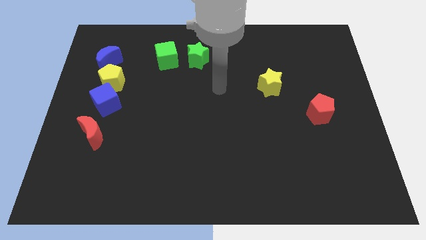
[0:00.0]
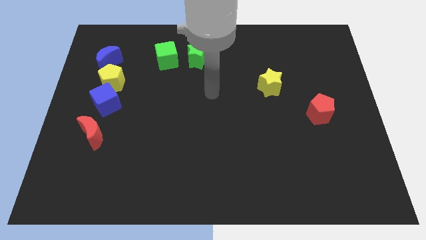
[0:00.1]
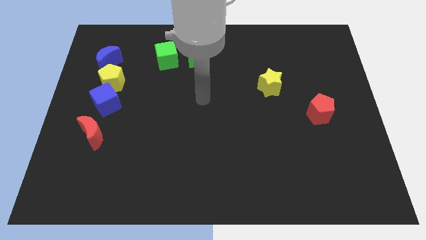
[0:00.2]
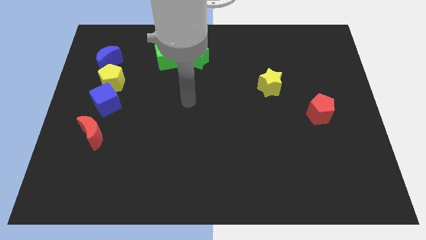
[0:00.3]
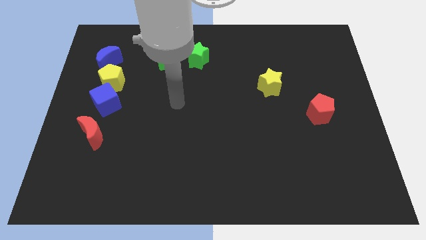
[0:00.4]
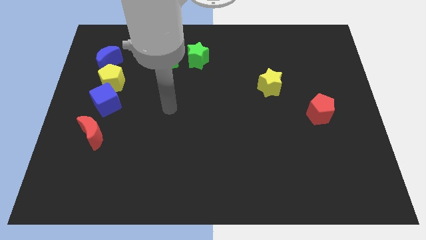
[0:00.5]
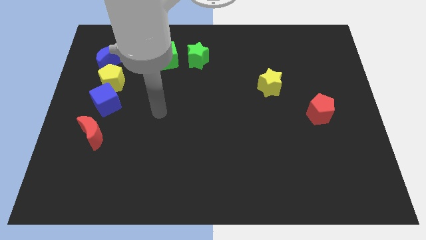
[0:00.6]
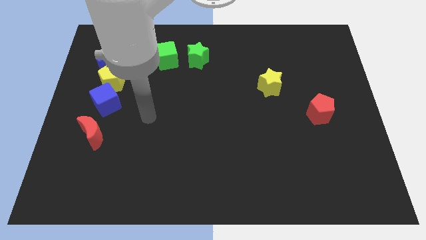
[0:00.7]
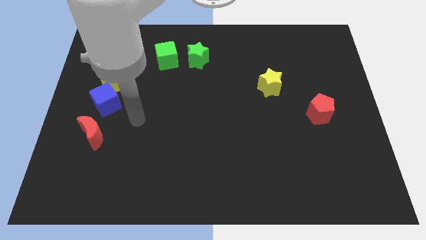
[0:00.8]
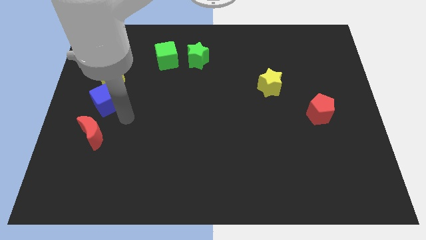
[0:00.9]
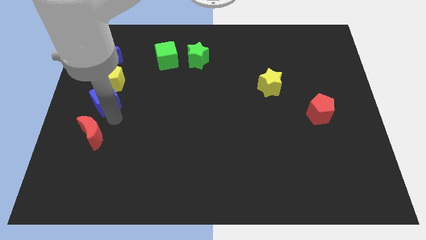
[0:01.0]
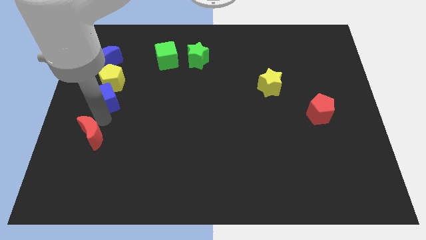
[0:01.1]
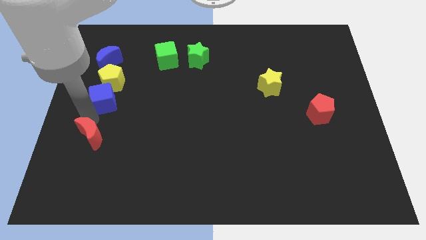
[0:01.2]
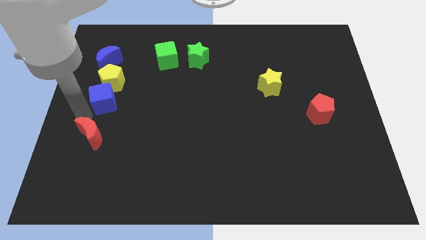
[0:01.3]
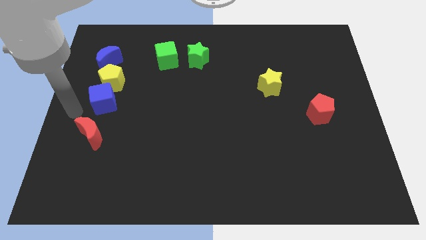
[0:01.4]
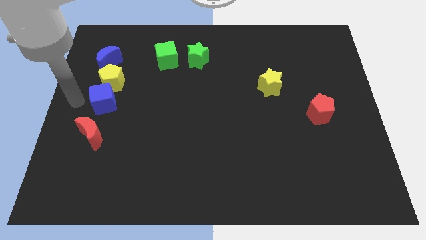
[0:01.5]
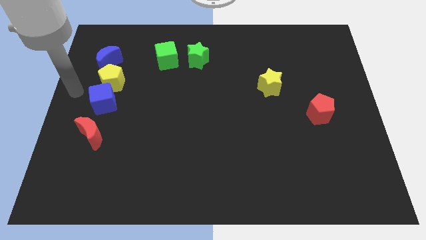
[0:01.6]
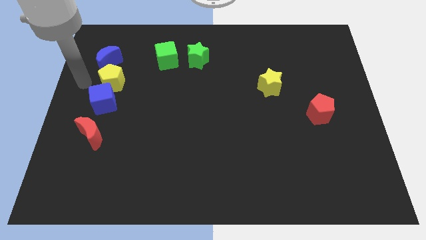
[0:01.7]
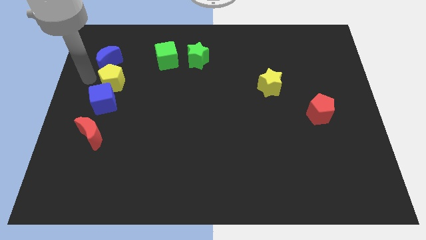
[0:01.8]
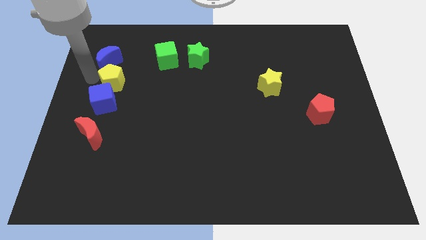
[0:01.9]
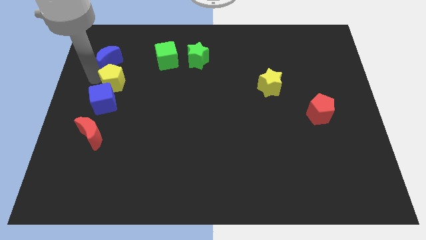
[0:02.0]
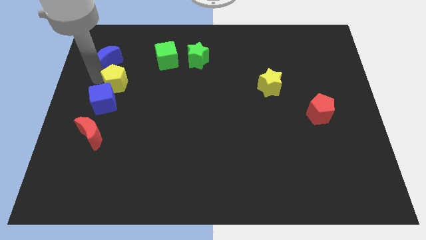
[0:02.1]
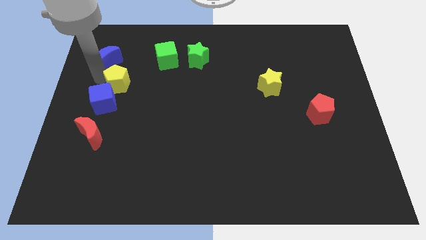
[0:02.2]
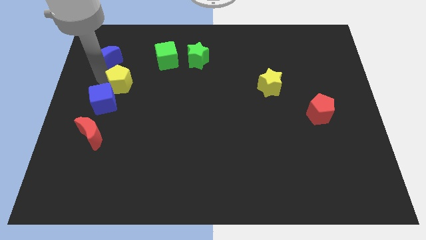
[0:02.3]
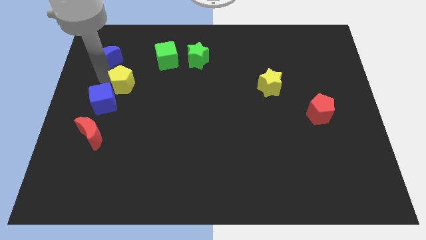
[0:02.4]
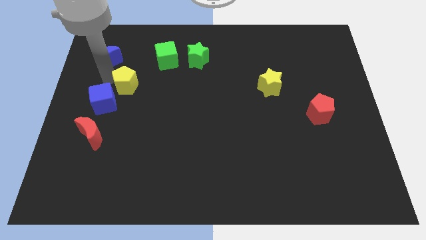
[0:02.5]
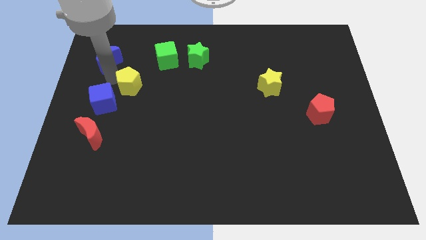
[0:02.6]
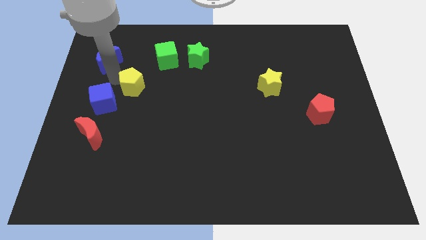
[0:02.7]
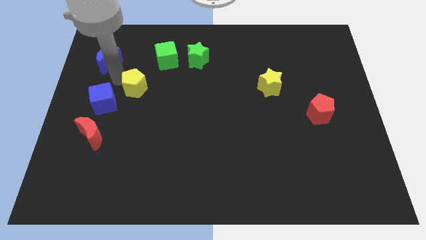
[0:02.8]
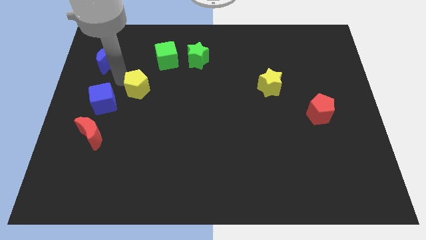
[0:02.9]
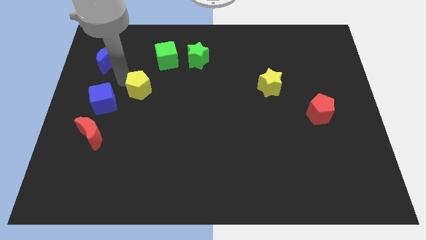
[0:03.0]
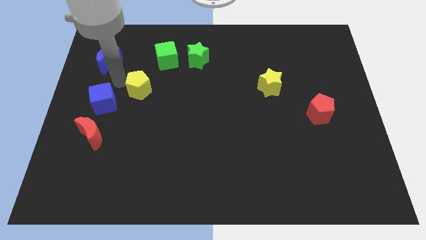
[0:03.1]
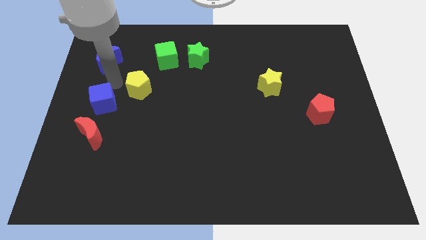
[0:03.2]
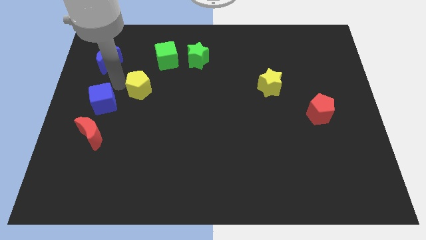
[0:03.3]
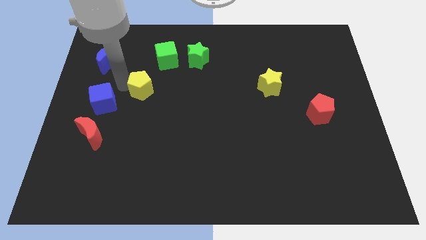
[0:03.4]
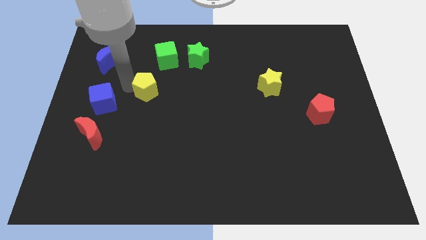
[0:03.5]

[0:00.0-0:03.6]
separate the yellow pentagon from the blue cube and blue moon

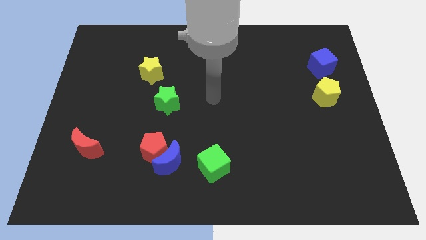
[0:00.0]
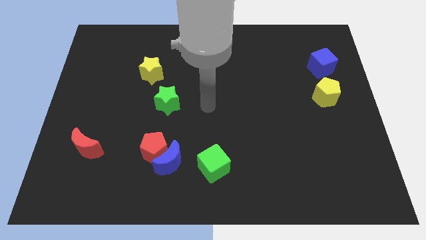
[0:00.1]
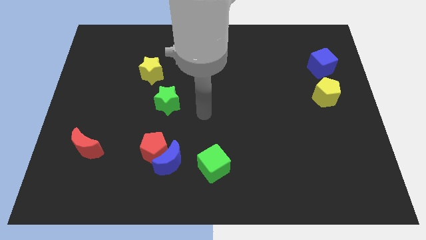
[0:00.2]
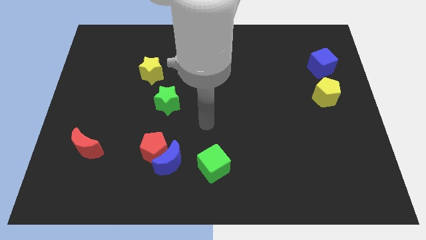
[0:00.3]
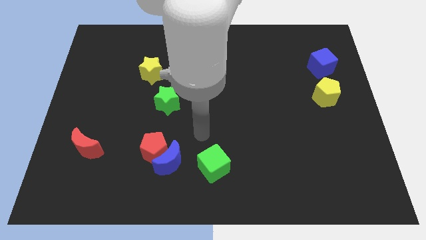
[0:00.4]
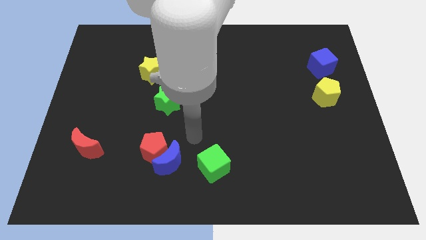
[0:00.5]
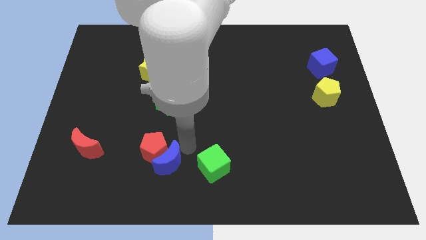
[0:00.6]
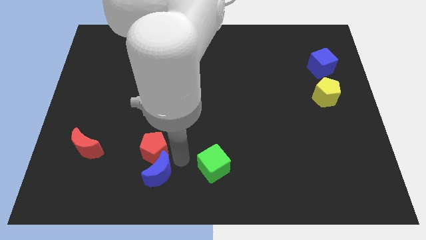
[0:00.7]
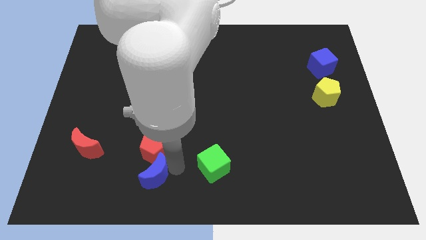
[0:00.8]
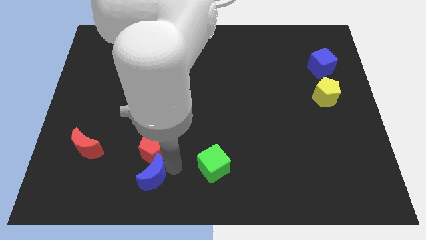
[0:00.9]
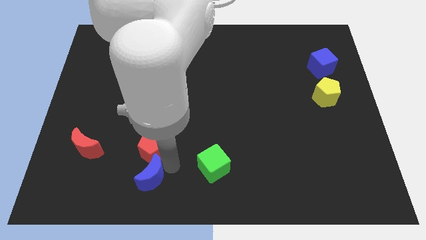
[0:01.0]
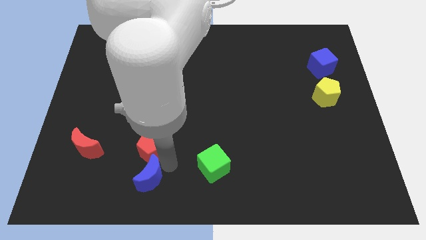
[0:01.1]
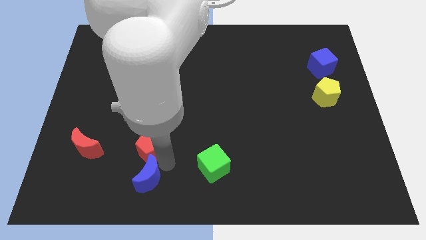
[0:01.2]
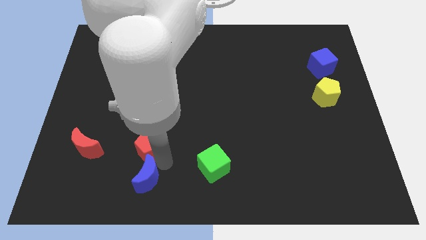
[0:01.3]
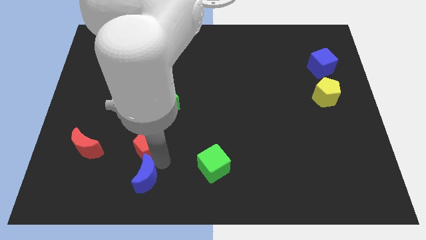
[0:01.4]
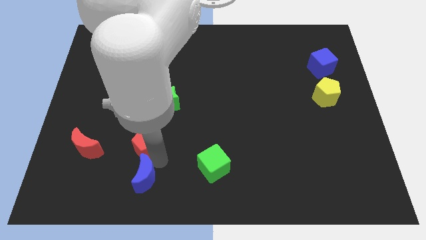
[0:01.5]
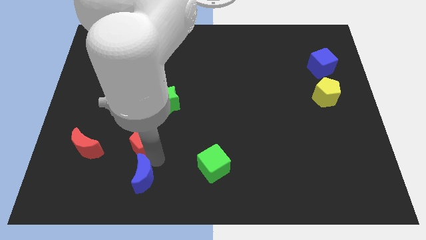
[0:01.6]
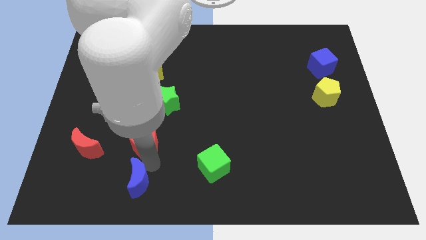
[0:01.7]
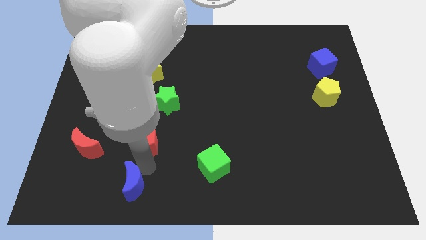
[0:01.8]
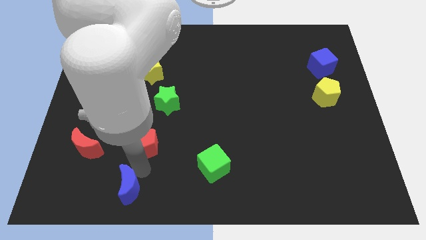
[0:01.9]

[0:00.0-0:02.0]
pull the red pentagon apart from the blue moon

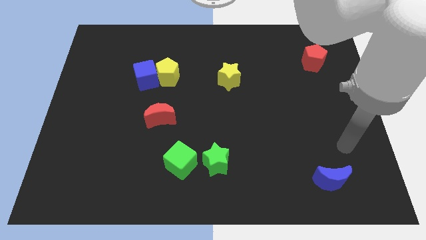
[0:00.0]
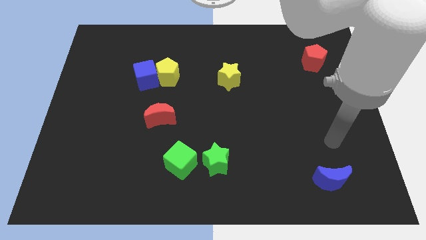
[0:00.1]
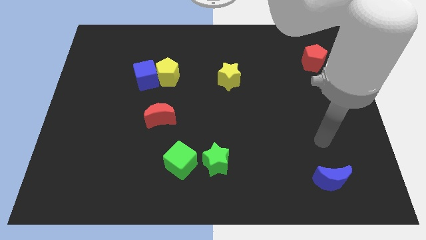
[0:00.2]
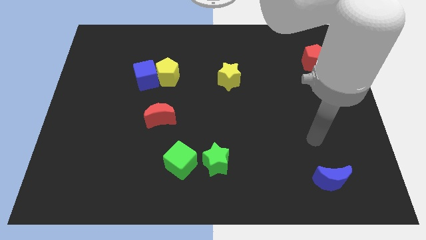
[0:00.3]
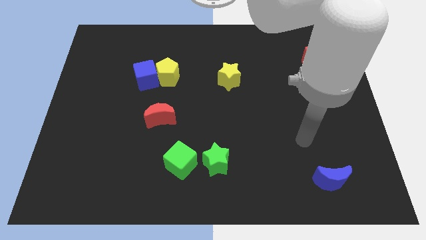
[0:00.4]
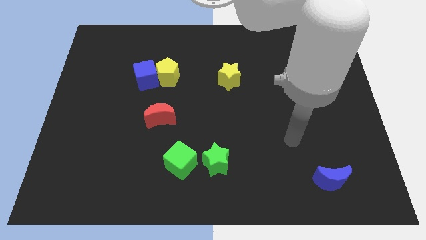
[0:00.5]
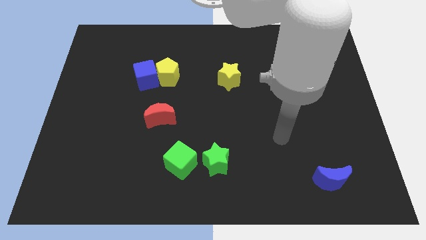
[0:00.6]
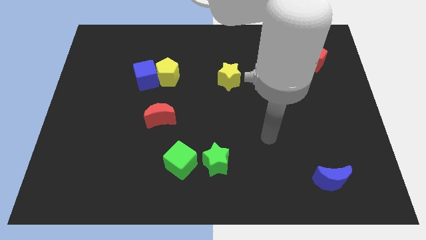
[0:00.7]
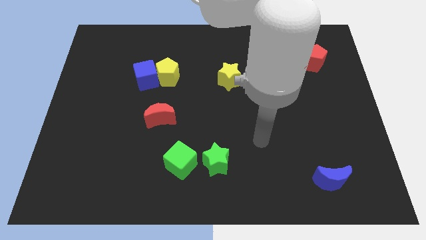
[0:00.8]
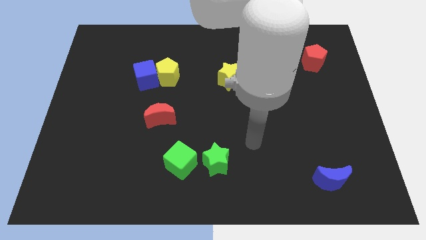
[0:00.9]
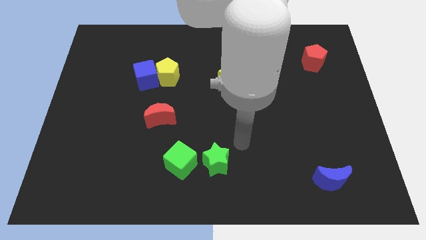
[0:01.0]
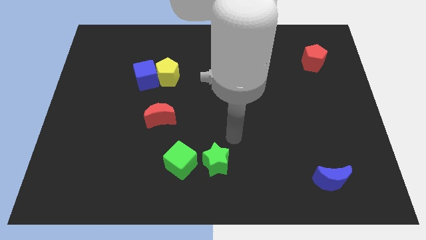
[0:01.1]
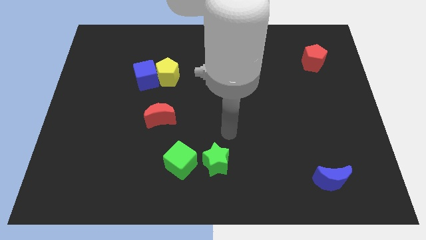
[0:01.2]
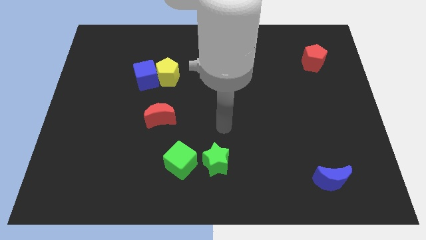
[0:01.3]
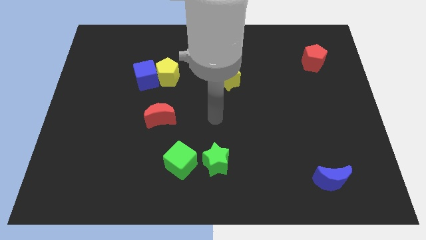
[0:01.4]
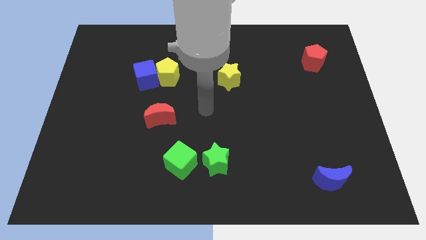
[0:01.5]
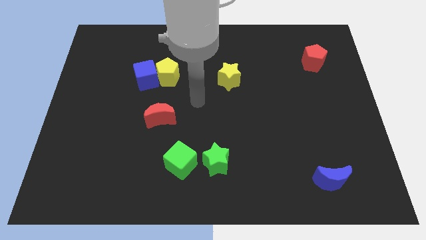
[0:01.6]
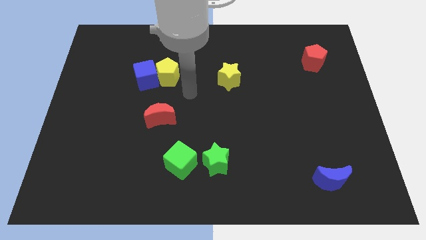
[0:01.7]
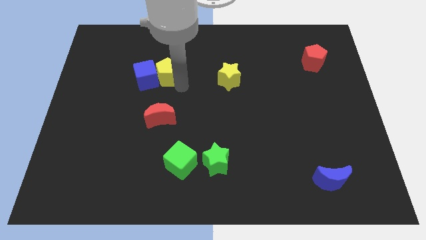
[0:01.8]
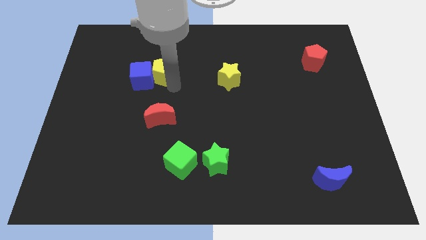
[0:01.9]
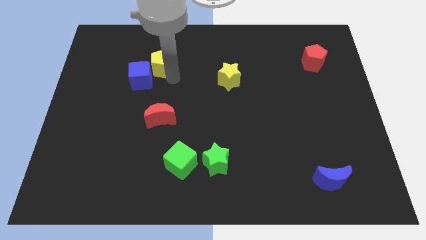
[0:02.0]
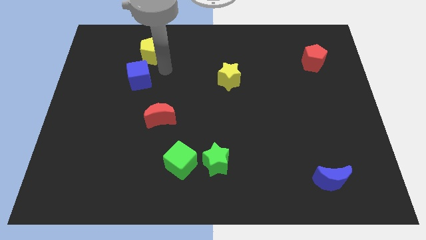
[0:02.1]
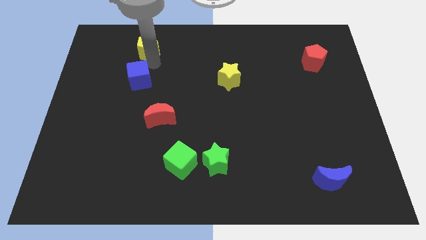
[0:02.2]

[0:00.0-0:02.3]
pull the blue cube apart from the yellow pentagon

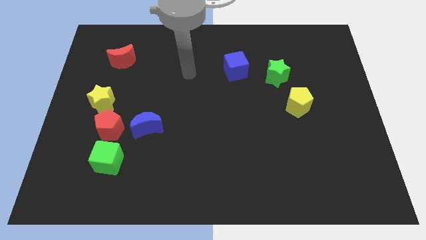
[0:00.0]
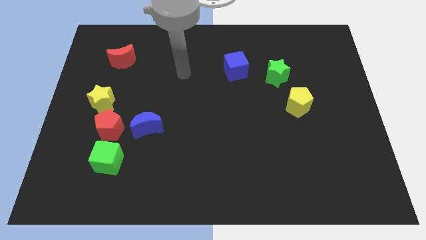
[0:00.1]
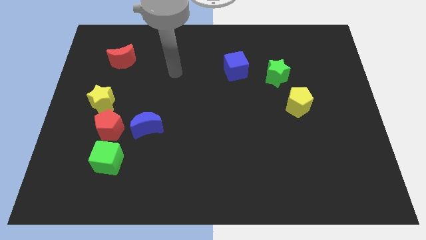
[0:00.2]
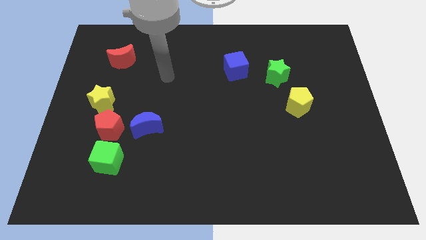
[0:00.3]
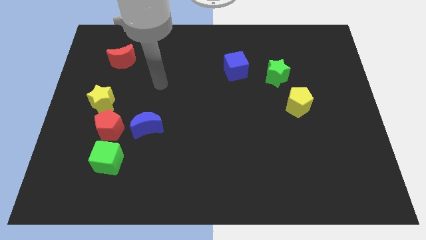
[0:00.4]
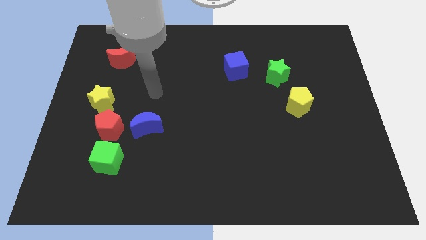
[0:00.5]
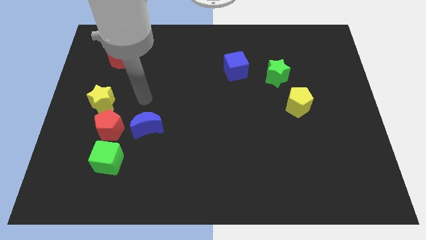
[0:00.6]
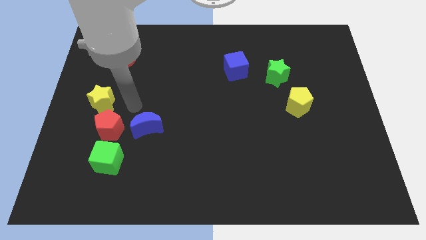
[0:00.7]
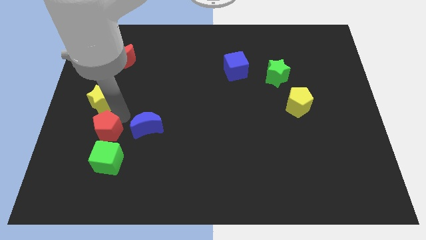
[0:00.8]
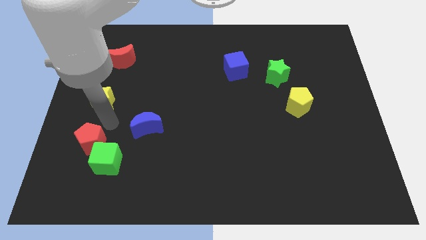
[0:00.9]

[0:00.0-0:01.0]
separate the yellow star from the red pentagon

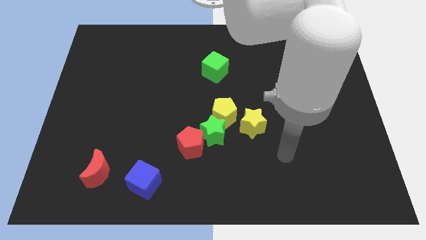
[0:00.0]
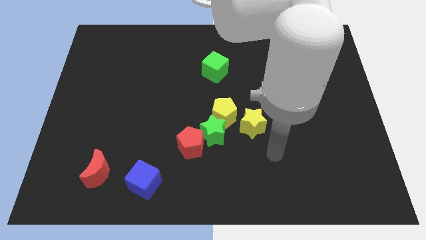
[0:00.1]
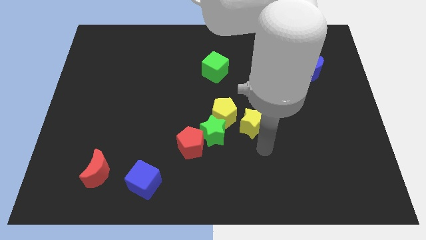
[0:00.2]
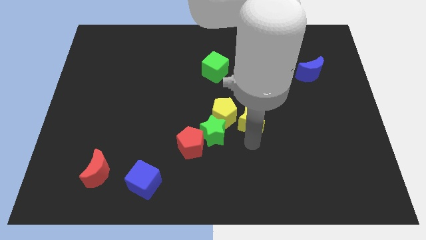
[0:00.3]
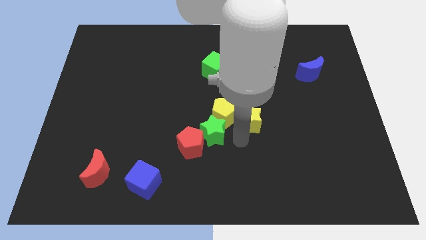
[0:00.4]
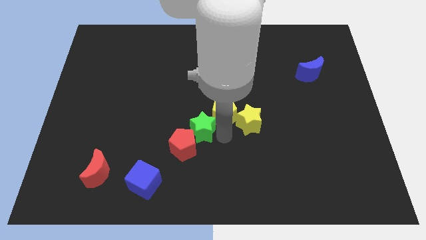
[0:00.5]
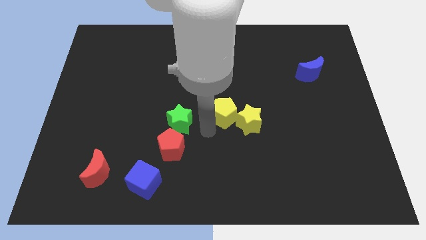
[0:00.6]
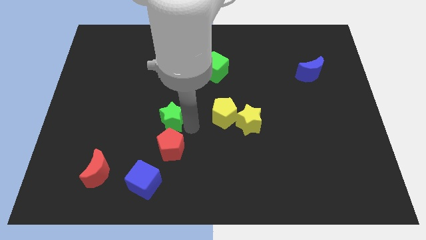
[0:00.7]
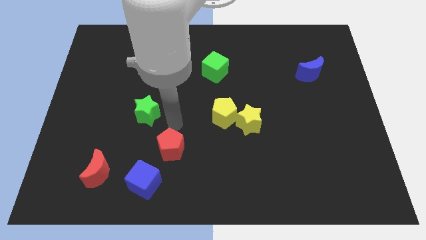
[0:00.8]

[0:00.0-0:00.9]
separate the red pentagon from the green star
